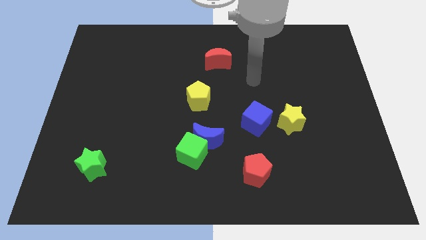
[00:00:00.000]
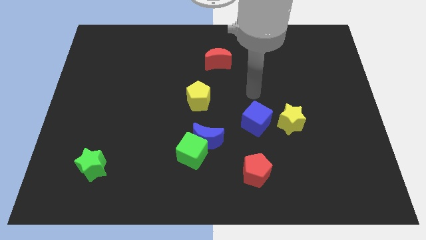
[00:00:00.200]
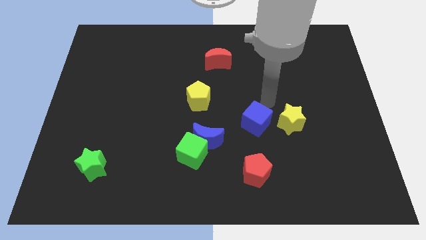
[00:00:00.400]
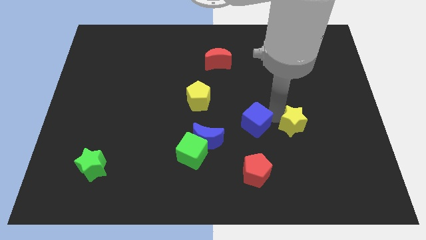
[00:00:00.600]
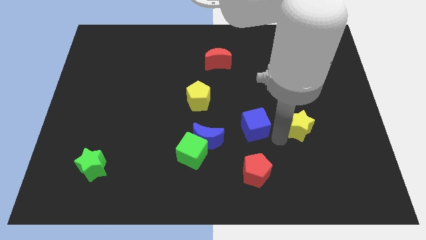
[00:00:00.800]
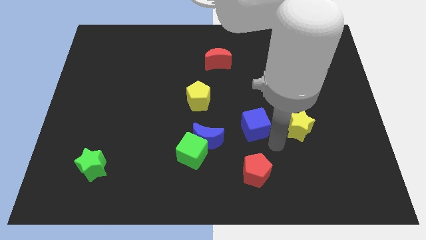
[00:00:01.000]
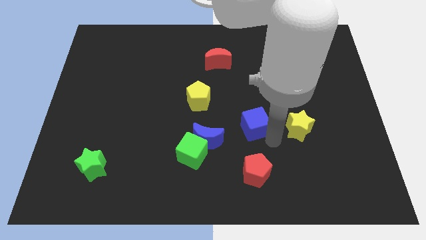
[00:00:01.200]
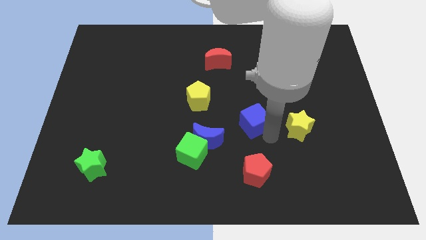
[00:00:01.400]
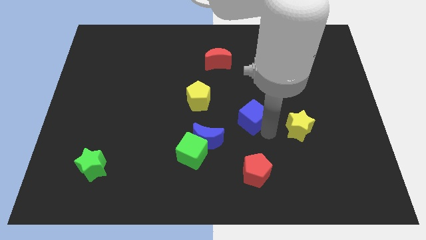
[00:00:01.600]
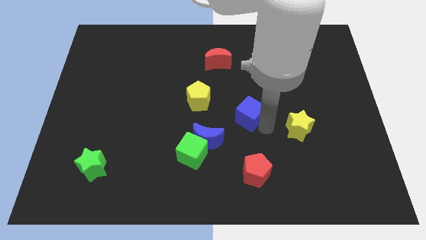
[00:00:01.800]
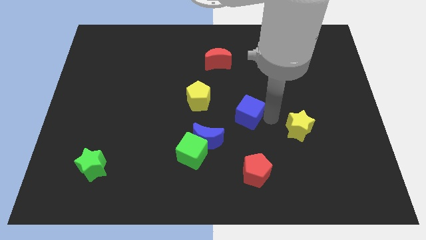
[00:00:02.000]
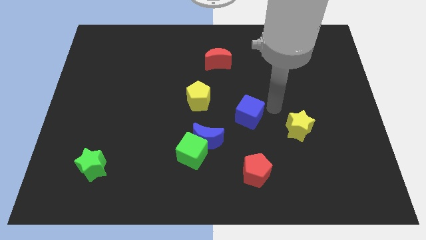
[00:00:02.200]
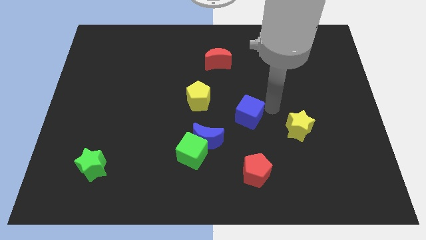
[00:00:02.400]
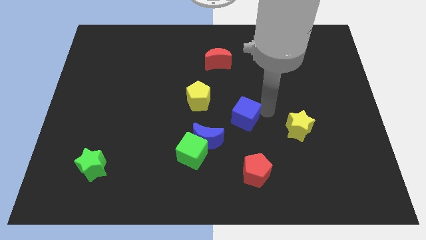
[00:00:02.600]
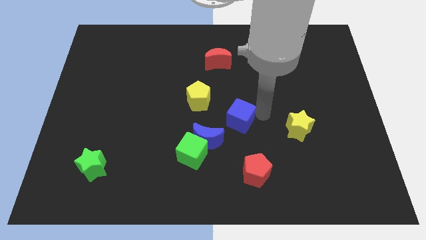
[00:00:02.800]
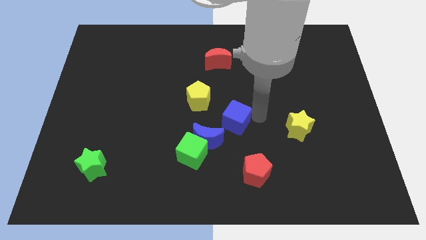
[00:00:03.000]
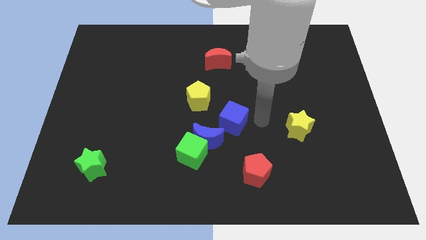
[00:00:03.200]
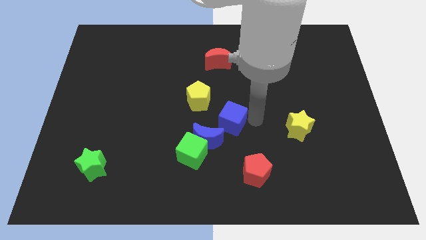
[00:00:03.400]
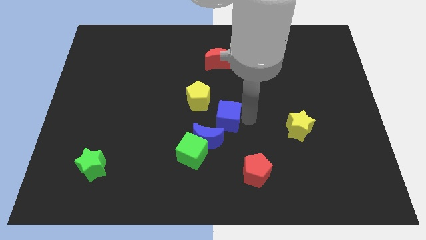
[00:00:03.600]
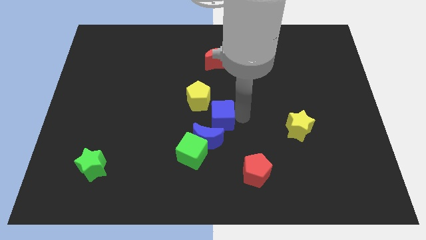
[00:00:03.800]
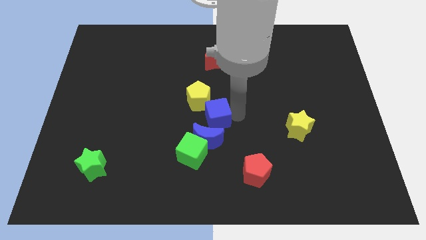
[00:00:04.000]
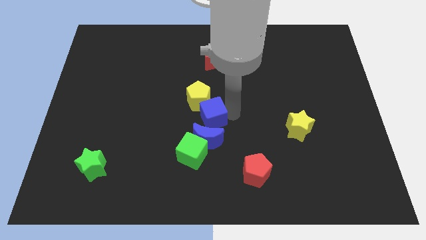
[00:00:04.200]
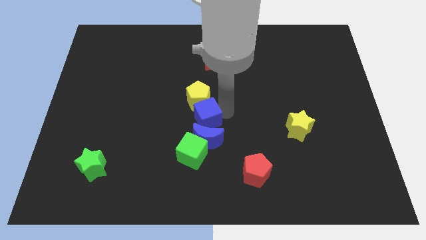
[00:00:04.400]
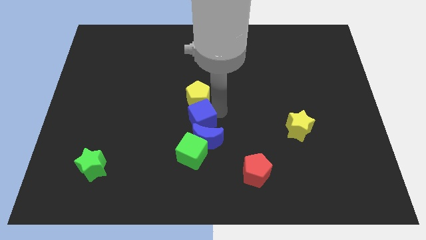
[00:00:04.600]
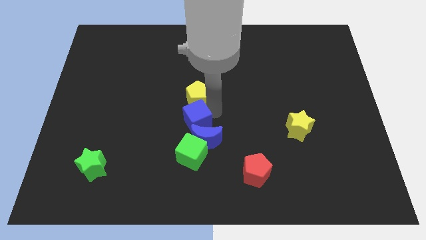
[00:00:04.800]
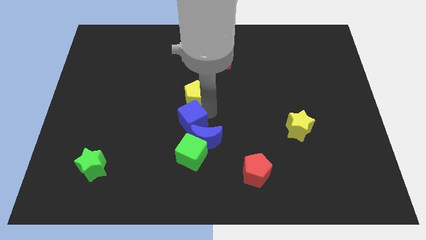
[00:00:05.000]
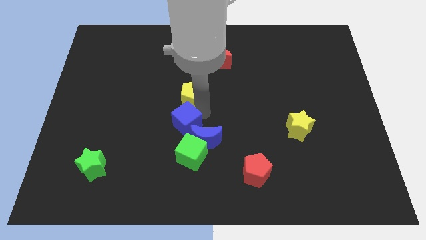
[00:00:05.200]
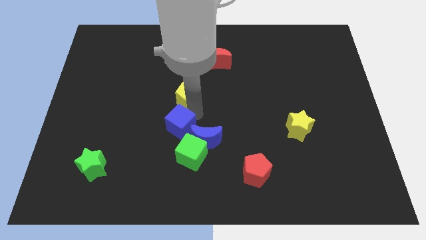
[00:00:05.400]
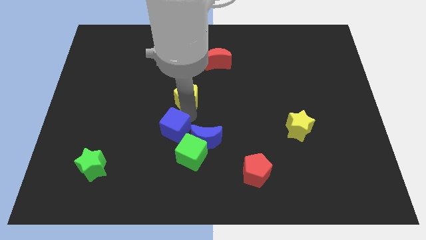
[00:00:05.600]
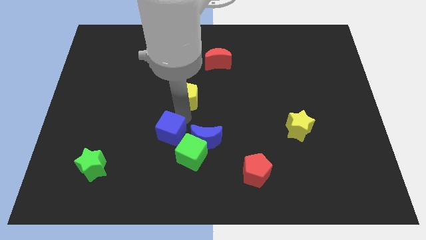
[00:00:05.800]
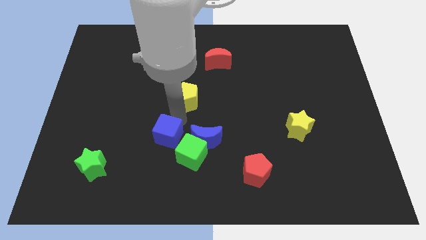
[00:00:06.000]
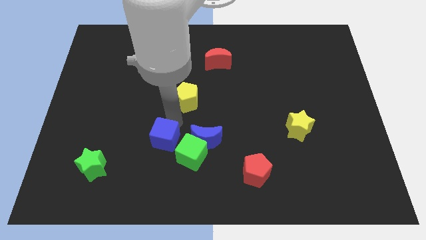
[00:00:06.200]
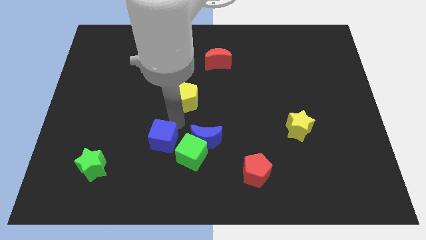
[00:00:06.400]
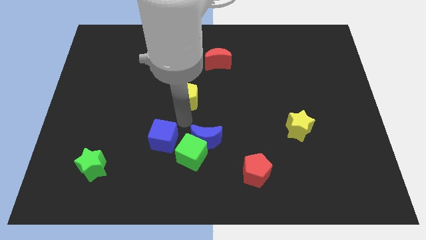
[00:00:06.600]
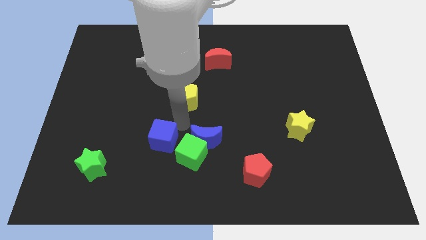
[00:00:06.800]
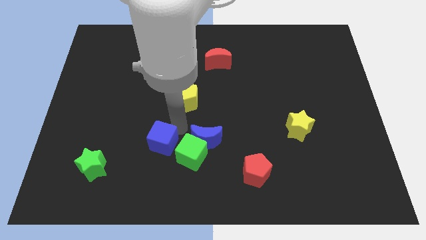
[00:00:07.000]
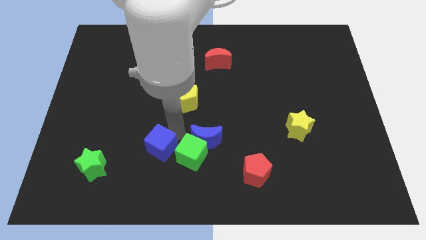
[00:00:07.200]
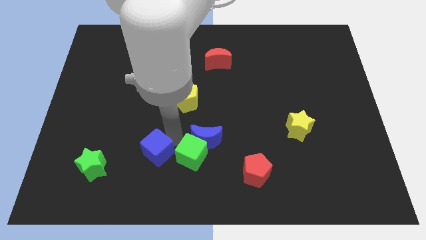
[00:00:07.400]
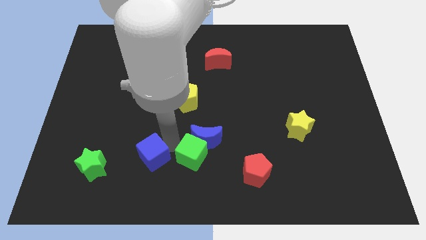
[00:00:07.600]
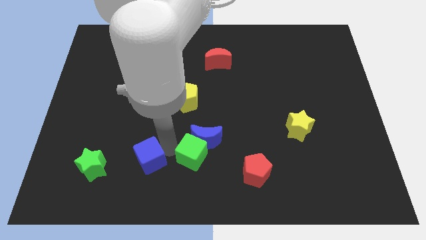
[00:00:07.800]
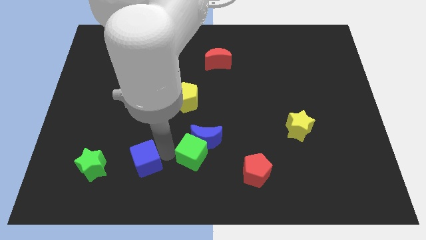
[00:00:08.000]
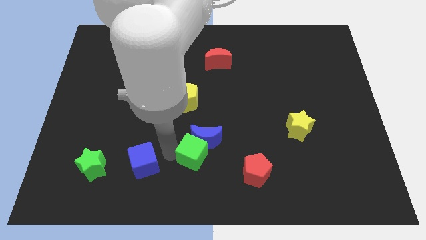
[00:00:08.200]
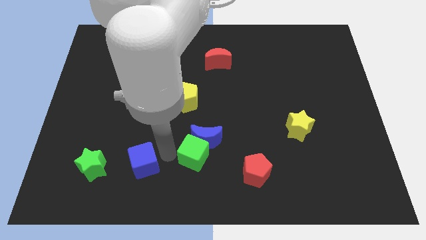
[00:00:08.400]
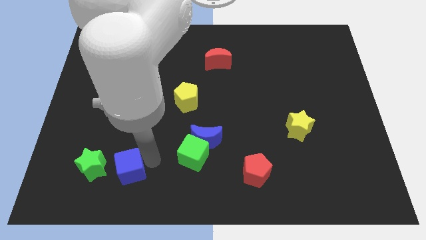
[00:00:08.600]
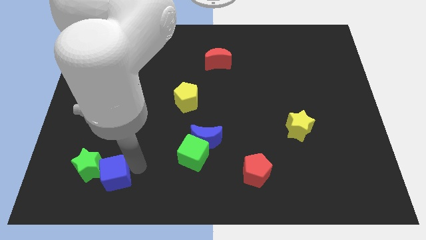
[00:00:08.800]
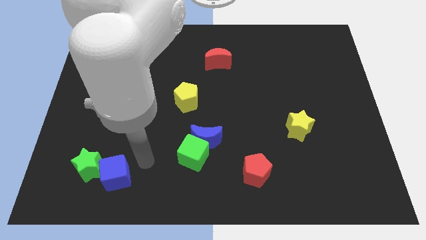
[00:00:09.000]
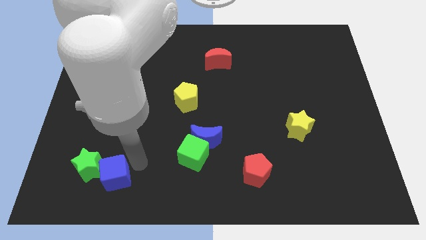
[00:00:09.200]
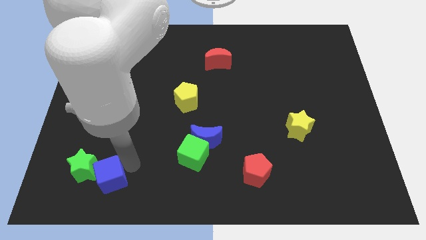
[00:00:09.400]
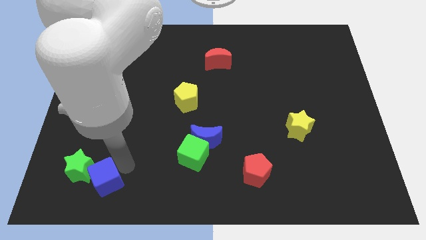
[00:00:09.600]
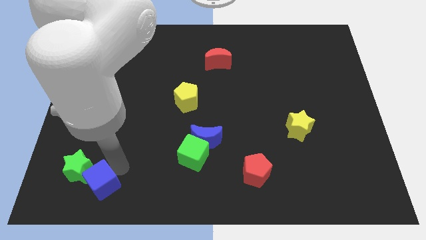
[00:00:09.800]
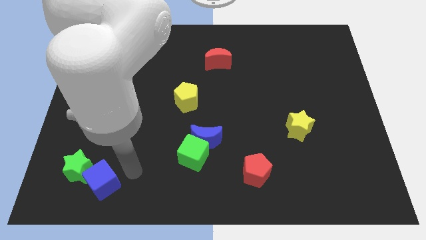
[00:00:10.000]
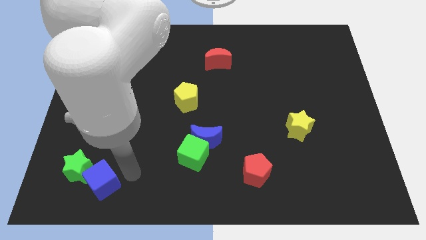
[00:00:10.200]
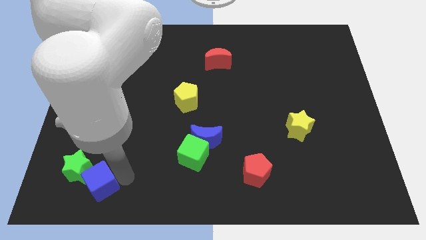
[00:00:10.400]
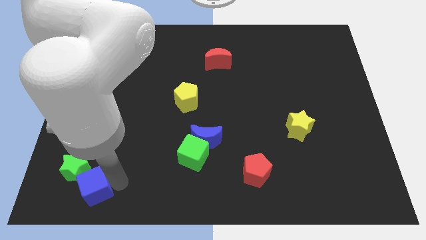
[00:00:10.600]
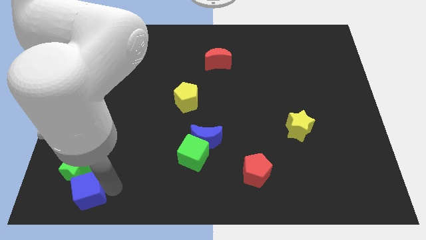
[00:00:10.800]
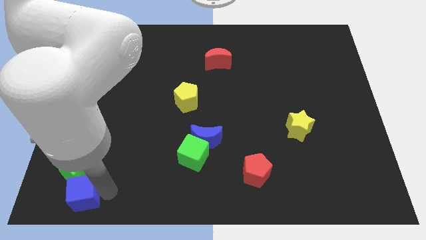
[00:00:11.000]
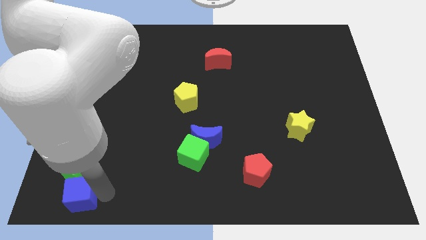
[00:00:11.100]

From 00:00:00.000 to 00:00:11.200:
put the blue cube to the lower left corner
